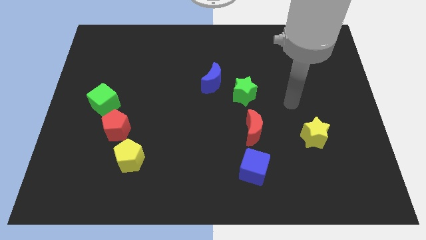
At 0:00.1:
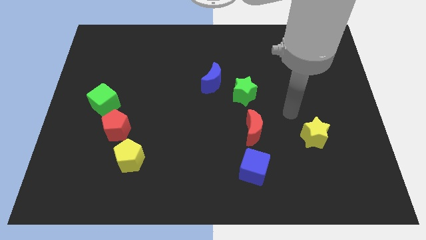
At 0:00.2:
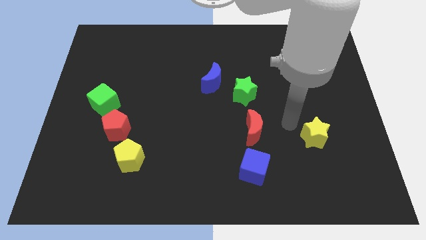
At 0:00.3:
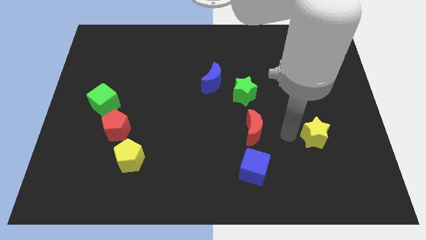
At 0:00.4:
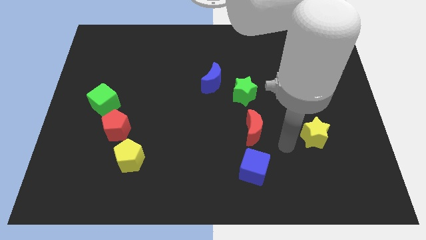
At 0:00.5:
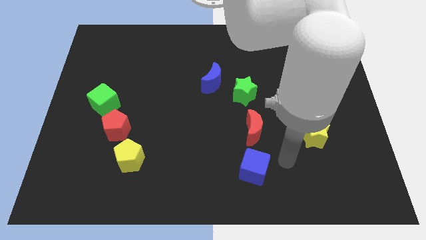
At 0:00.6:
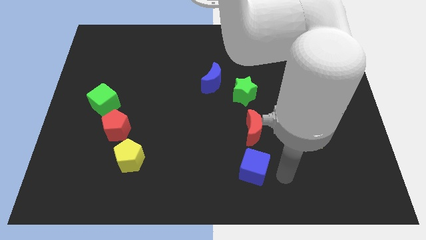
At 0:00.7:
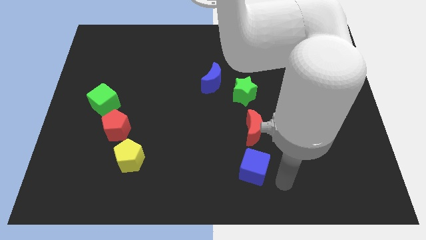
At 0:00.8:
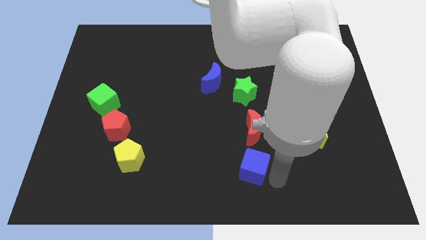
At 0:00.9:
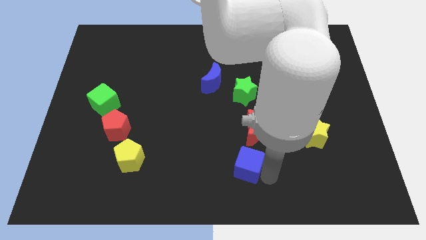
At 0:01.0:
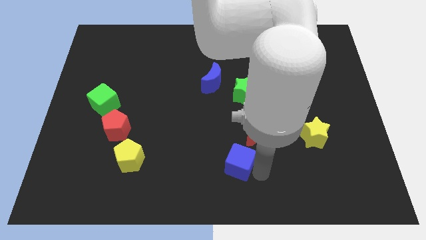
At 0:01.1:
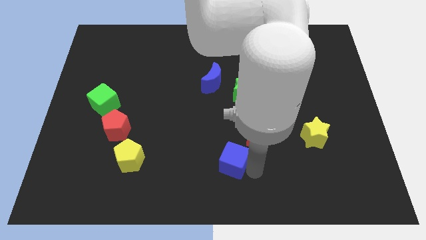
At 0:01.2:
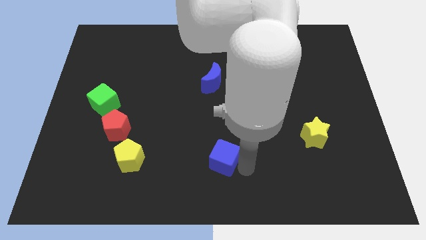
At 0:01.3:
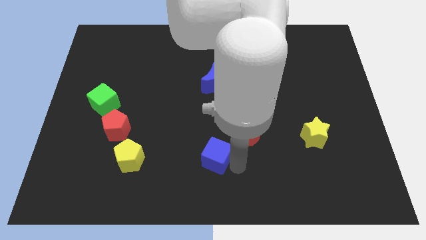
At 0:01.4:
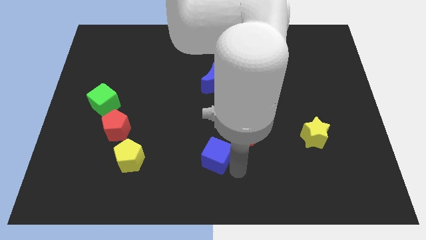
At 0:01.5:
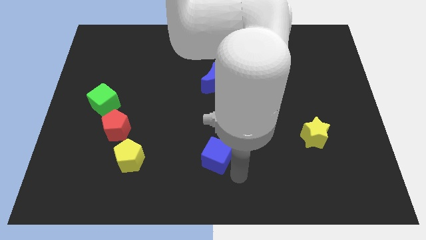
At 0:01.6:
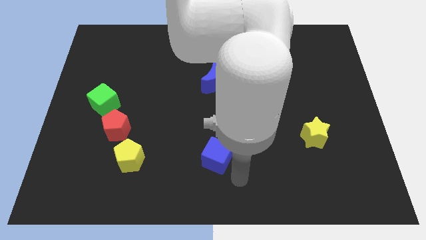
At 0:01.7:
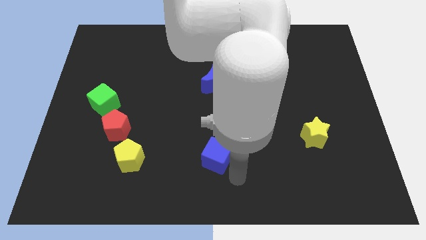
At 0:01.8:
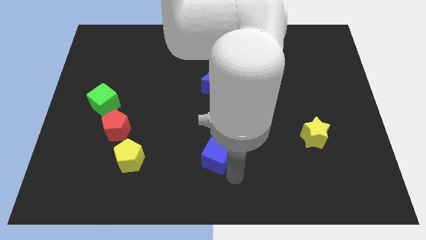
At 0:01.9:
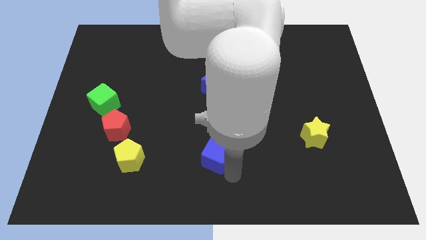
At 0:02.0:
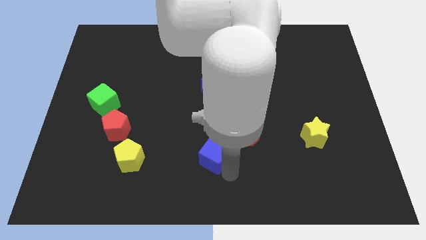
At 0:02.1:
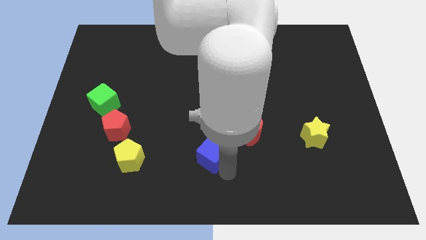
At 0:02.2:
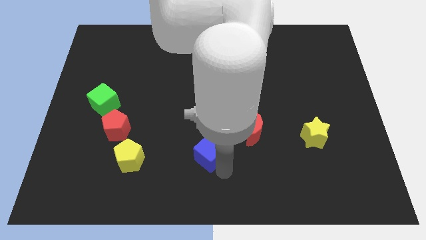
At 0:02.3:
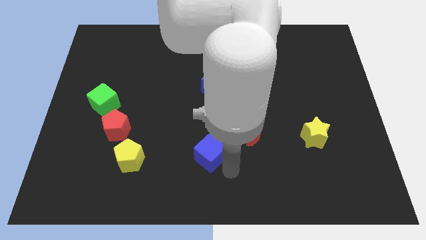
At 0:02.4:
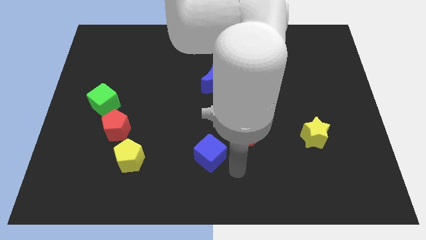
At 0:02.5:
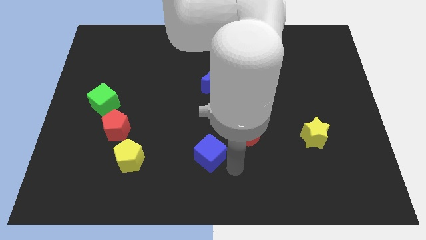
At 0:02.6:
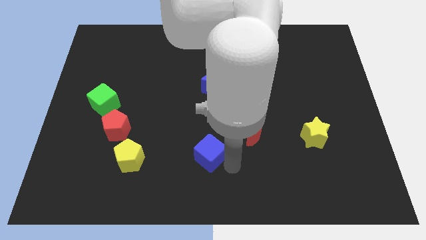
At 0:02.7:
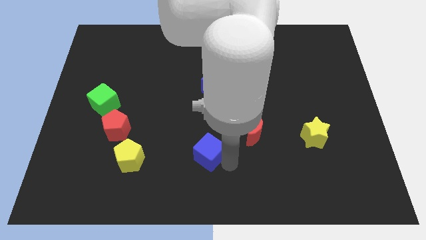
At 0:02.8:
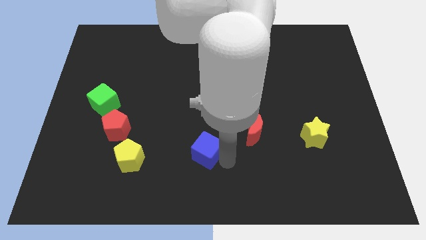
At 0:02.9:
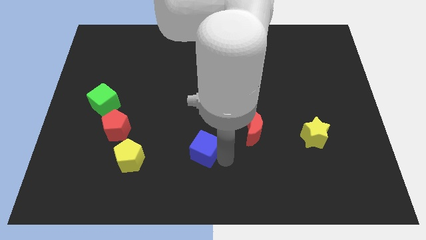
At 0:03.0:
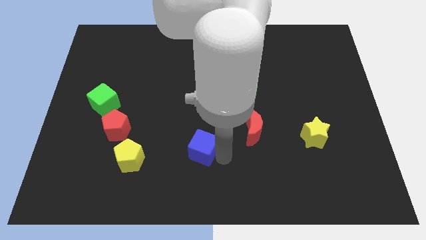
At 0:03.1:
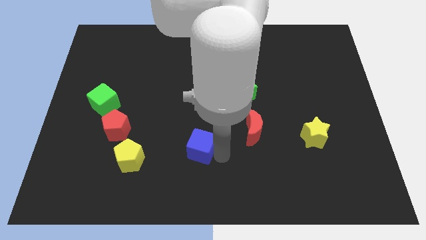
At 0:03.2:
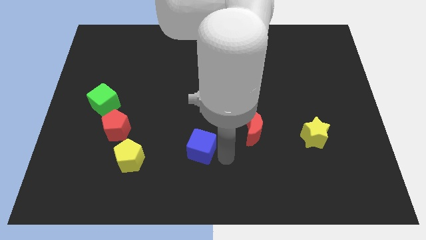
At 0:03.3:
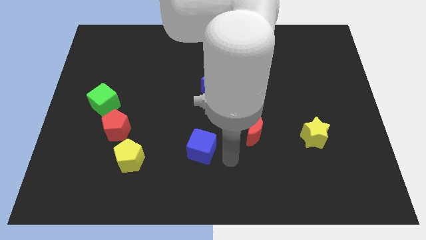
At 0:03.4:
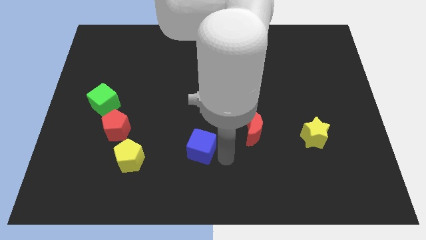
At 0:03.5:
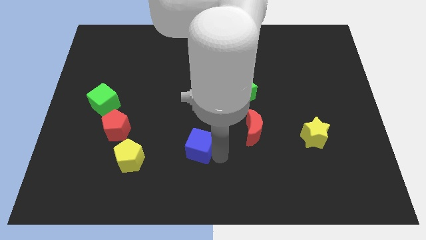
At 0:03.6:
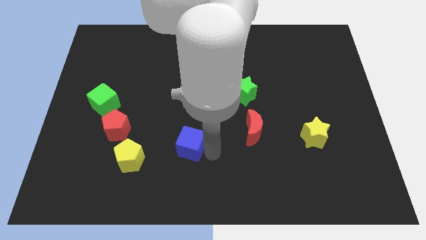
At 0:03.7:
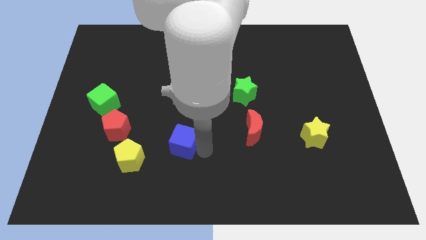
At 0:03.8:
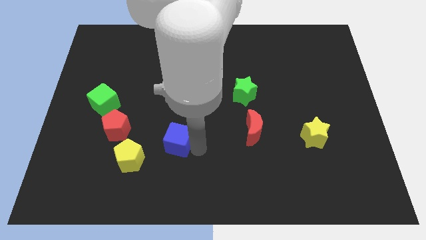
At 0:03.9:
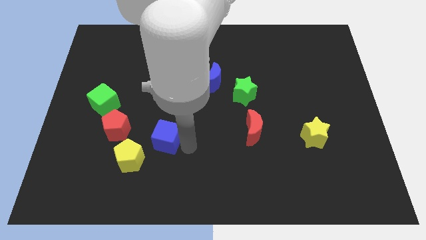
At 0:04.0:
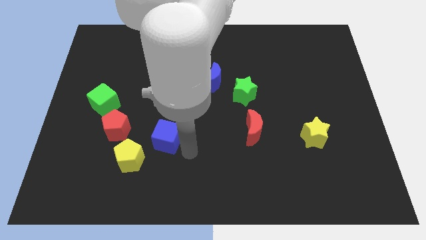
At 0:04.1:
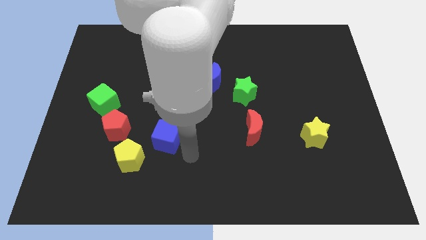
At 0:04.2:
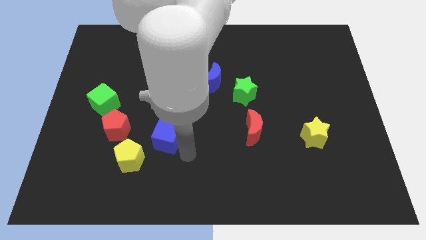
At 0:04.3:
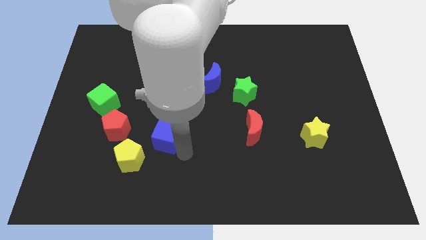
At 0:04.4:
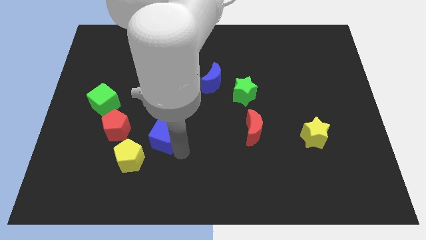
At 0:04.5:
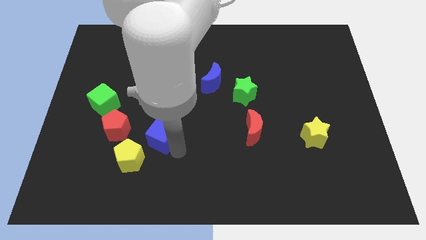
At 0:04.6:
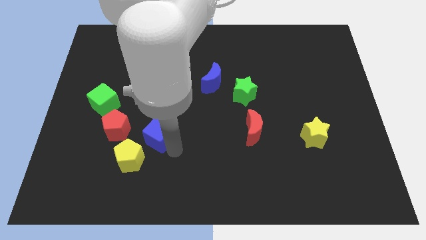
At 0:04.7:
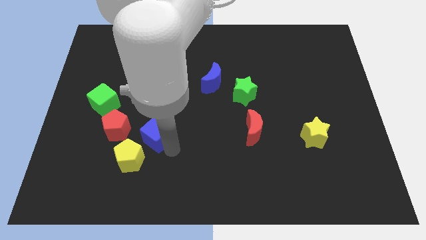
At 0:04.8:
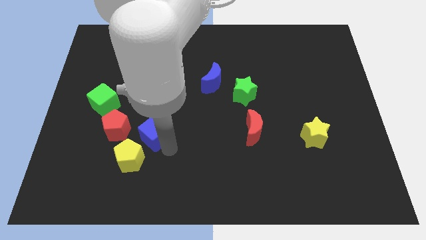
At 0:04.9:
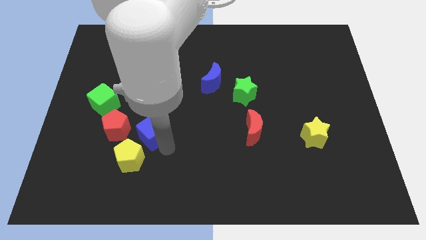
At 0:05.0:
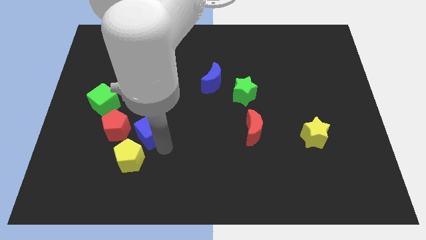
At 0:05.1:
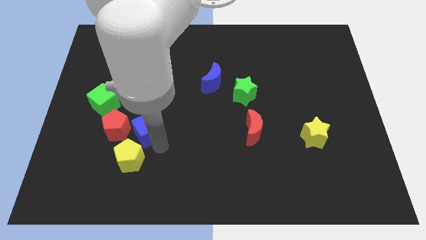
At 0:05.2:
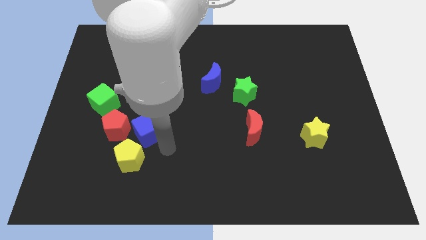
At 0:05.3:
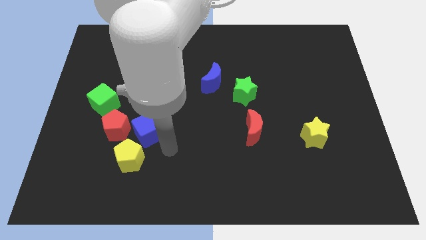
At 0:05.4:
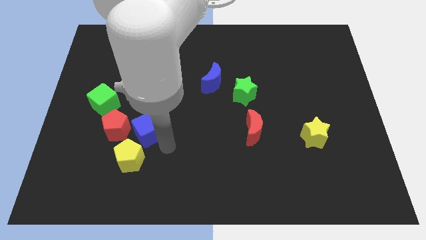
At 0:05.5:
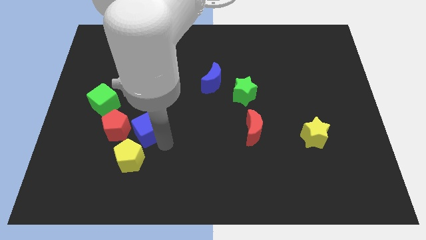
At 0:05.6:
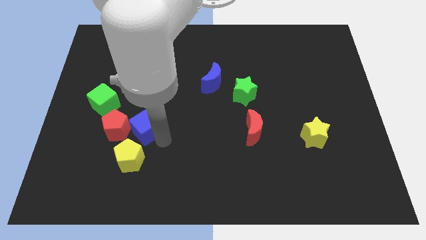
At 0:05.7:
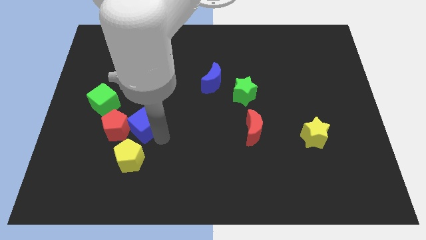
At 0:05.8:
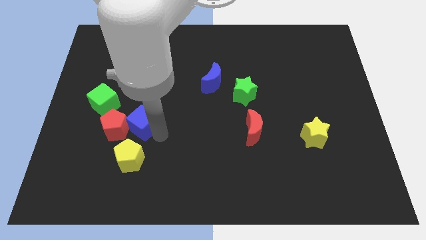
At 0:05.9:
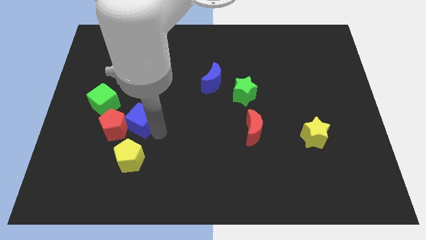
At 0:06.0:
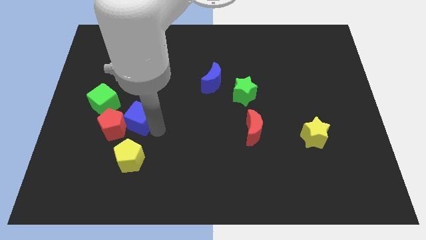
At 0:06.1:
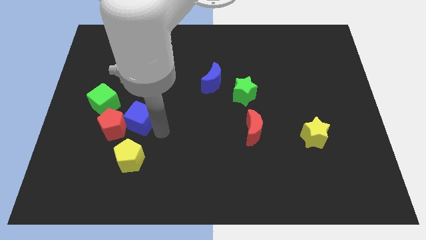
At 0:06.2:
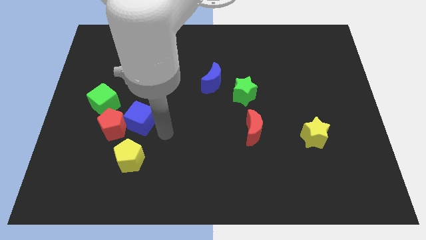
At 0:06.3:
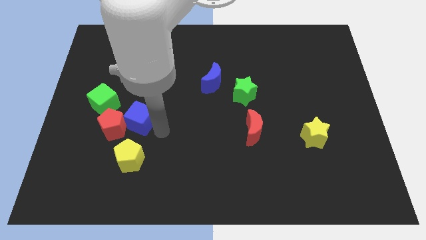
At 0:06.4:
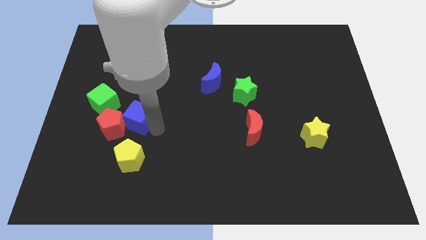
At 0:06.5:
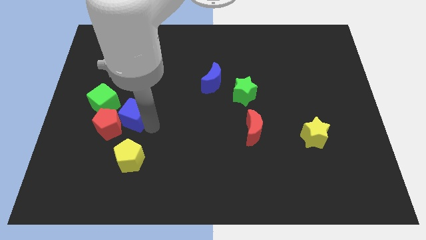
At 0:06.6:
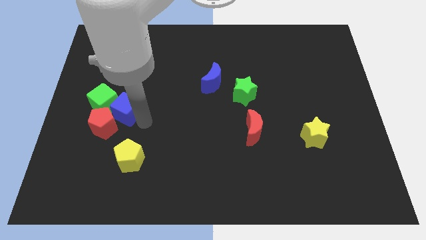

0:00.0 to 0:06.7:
push the blue cube close to the green cube

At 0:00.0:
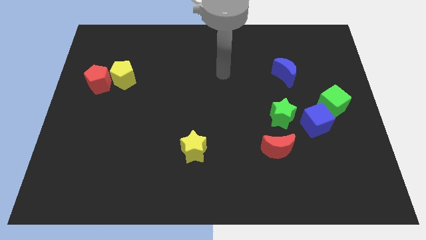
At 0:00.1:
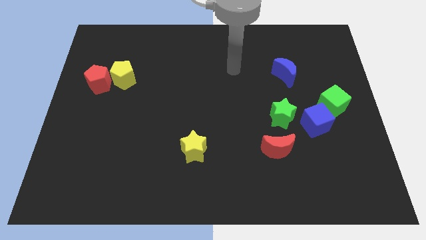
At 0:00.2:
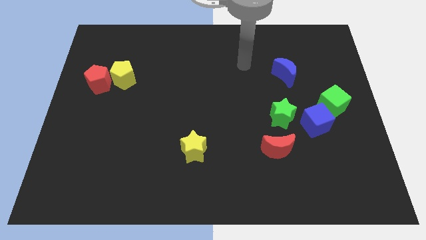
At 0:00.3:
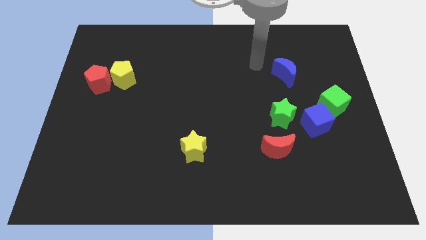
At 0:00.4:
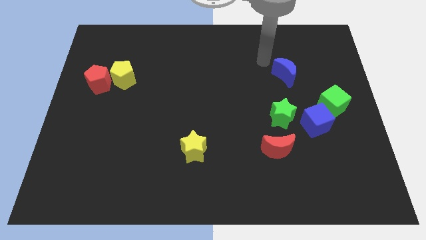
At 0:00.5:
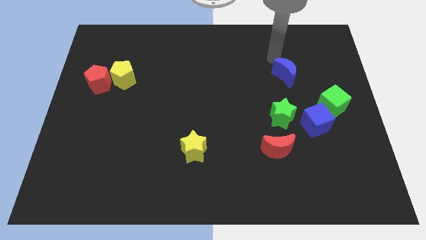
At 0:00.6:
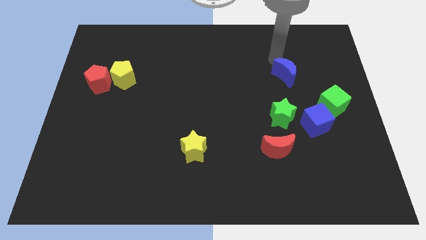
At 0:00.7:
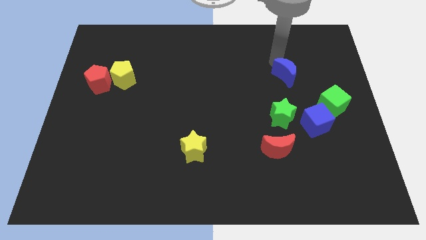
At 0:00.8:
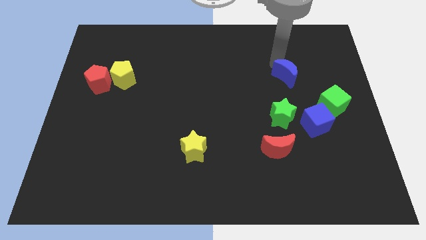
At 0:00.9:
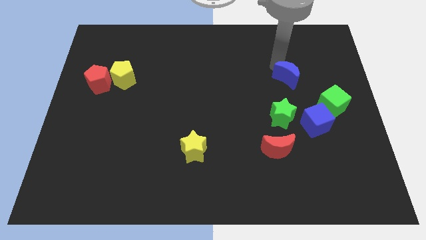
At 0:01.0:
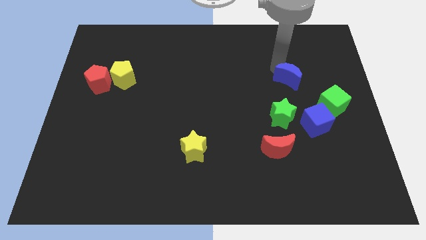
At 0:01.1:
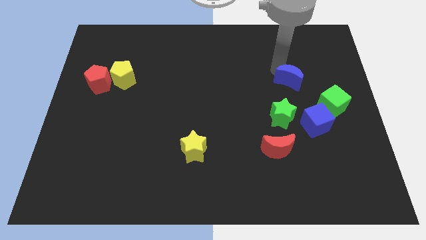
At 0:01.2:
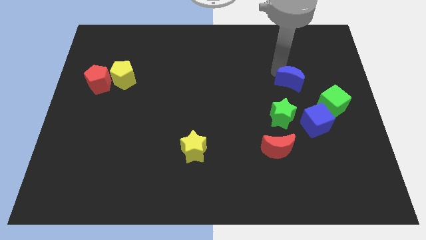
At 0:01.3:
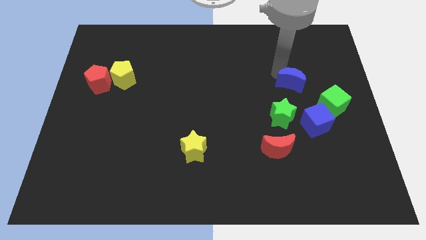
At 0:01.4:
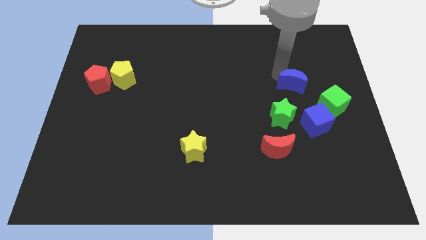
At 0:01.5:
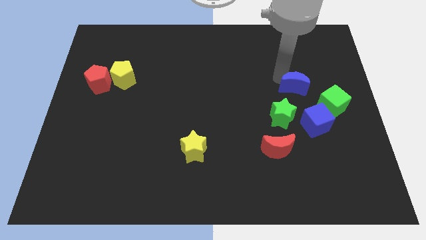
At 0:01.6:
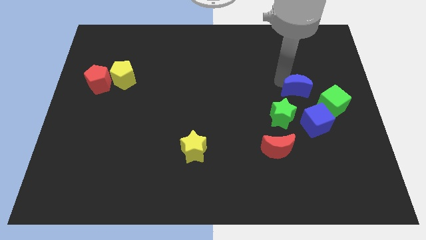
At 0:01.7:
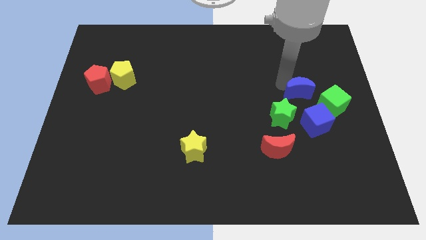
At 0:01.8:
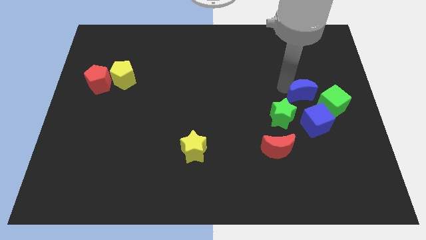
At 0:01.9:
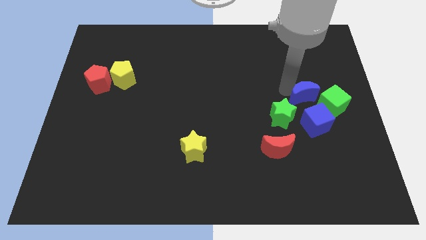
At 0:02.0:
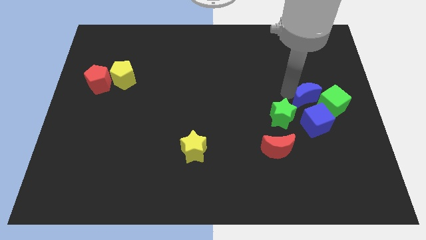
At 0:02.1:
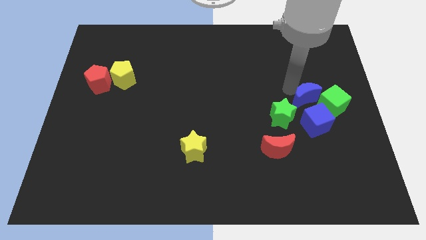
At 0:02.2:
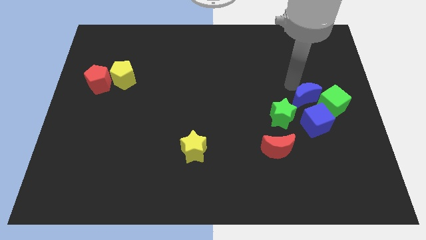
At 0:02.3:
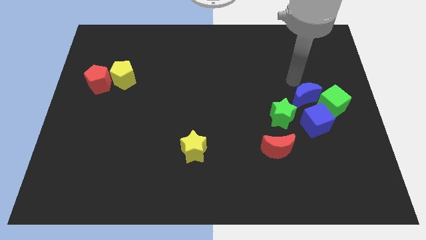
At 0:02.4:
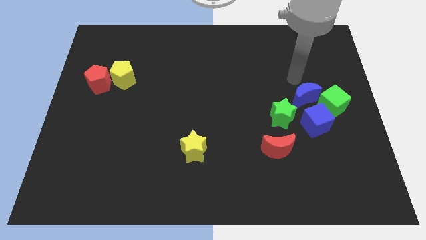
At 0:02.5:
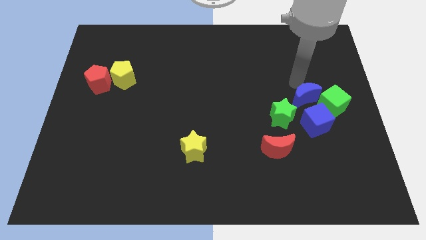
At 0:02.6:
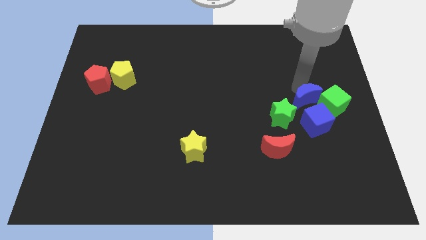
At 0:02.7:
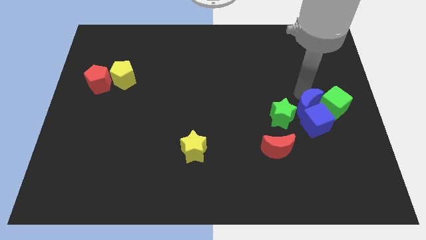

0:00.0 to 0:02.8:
push the blue moon next to the blue cube
